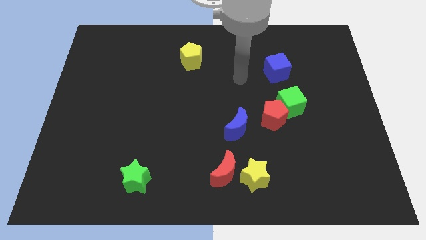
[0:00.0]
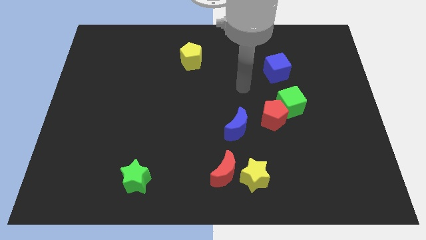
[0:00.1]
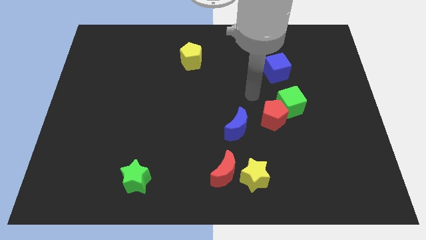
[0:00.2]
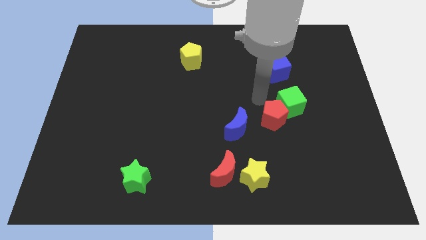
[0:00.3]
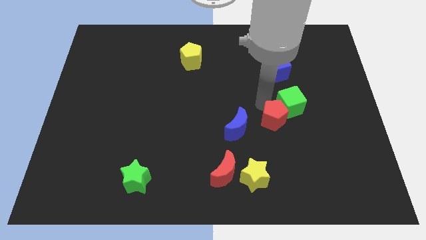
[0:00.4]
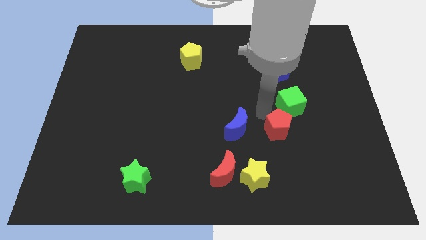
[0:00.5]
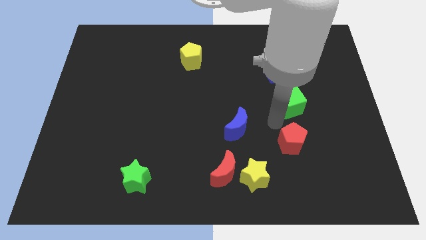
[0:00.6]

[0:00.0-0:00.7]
pull the green cube apart from the red pentagon

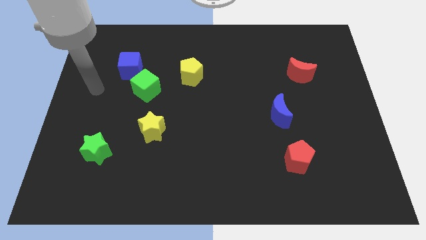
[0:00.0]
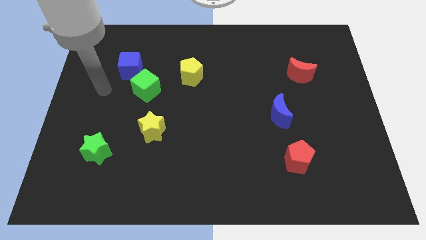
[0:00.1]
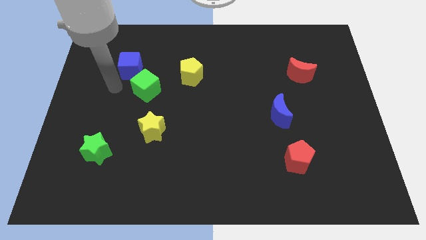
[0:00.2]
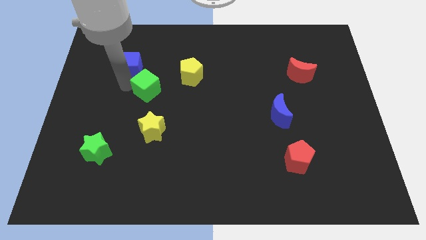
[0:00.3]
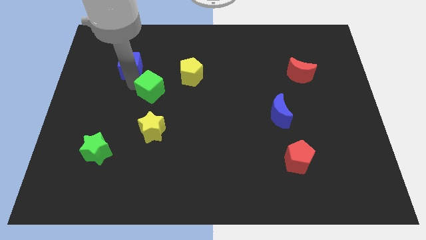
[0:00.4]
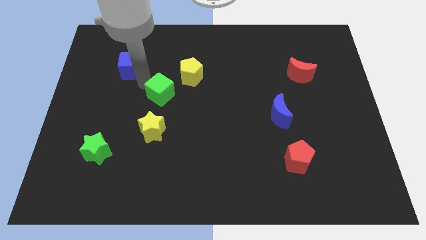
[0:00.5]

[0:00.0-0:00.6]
move the blue cube away from the green cube

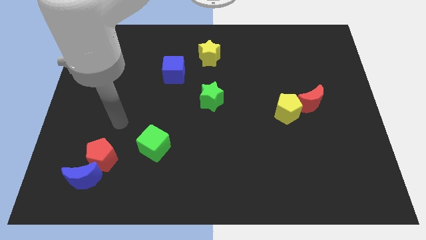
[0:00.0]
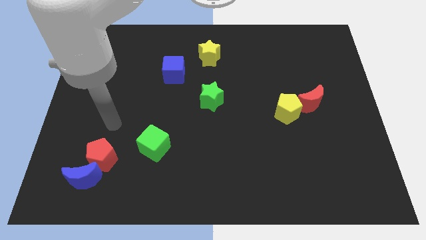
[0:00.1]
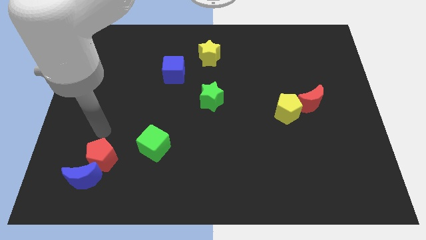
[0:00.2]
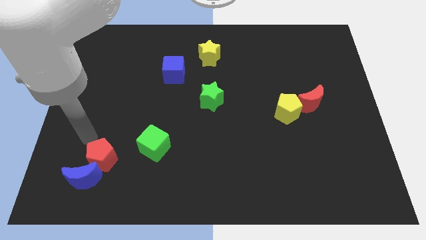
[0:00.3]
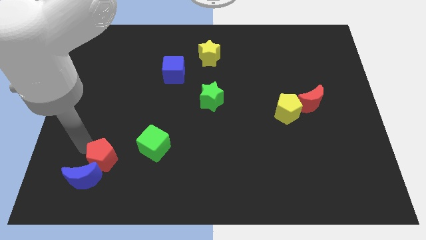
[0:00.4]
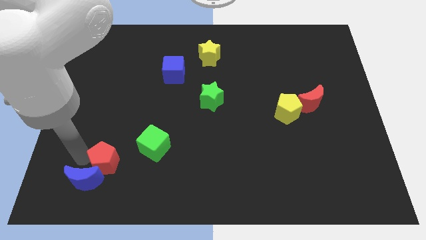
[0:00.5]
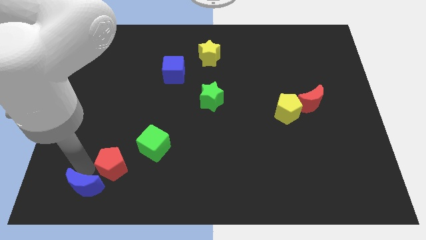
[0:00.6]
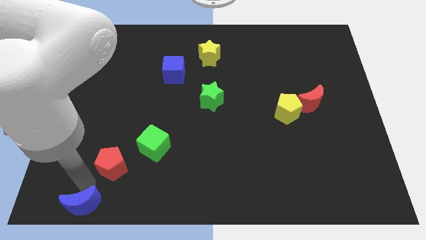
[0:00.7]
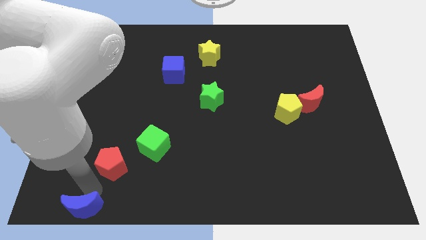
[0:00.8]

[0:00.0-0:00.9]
move the red pentagon away from the blue moon

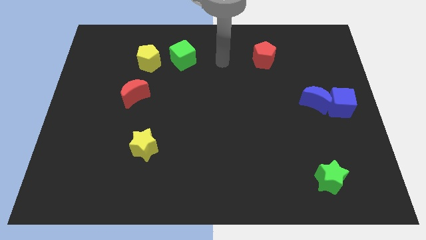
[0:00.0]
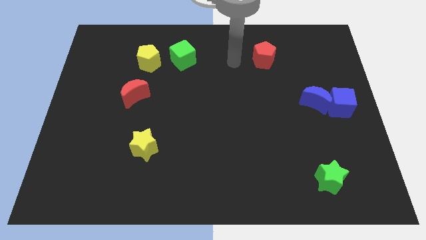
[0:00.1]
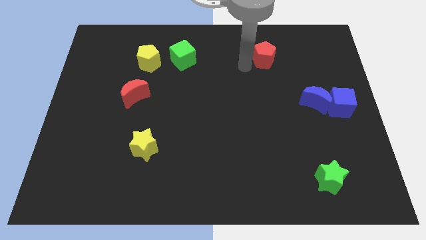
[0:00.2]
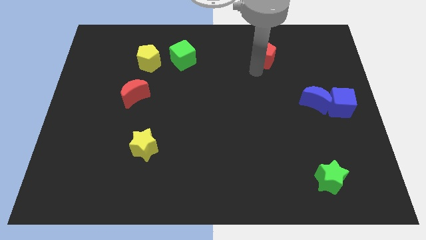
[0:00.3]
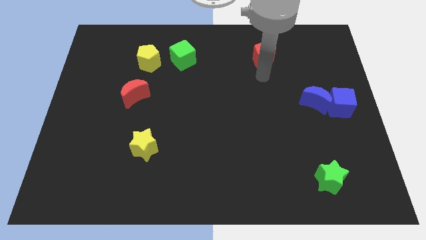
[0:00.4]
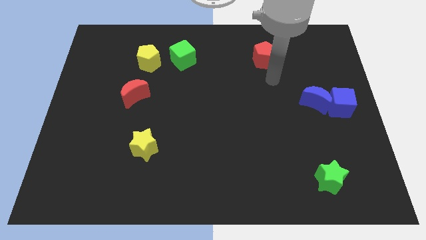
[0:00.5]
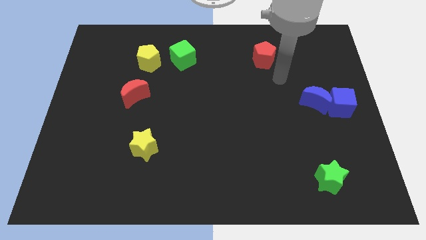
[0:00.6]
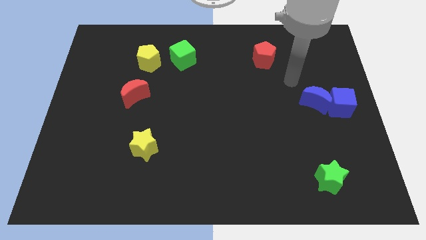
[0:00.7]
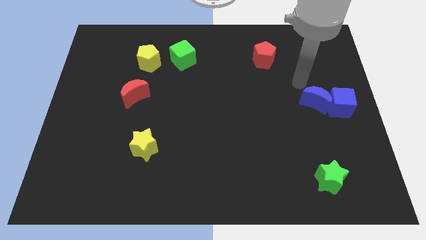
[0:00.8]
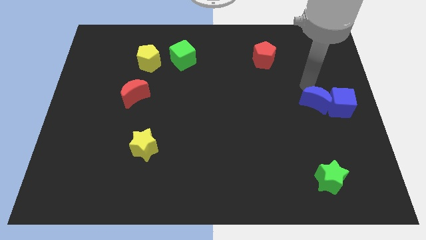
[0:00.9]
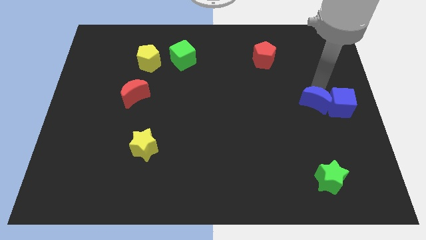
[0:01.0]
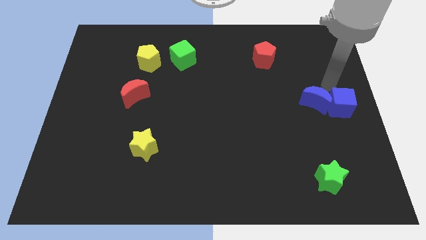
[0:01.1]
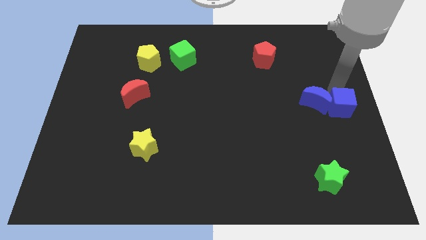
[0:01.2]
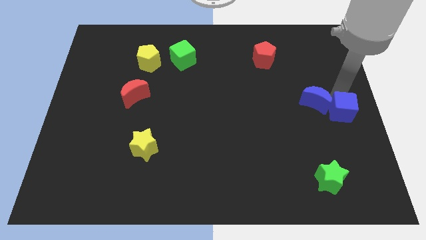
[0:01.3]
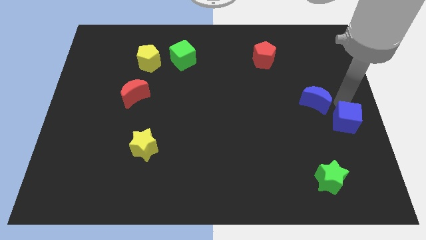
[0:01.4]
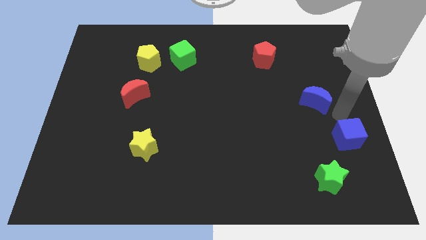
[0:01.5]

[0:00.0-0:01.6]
separate the blue moon from the blue cube

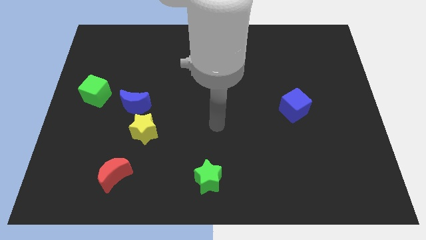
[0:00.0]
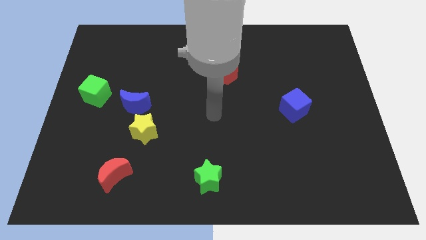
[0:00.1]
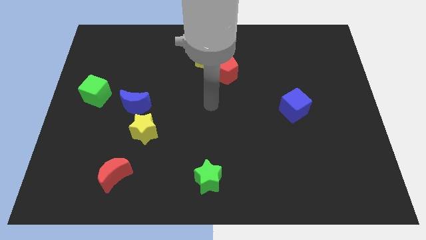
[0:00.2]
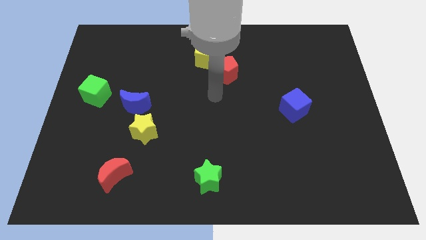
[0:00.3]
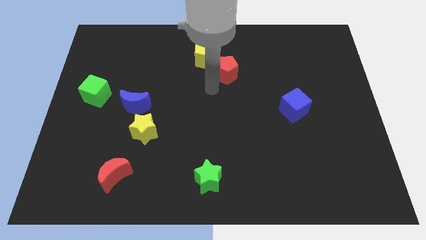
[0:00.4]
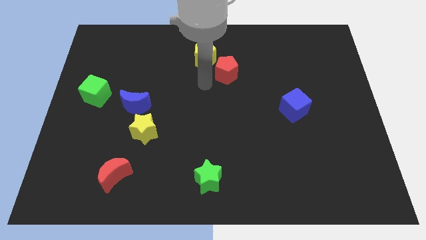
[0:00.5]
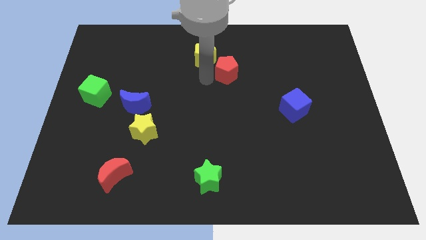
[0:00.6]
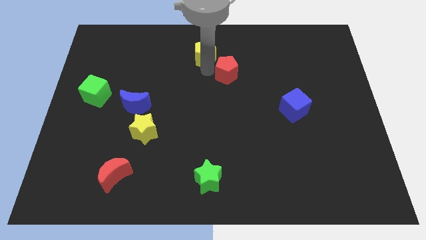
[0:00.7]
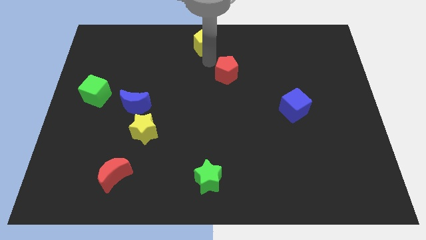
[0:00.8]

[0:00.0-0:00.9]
move the red pentagon away from the yellow pentagon

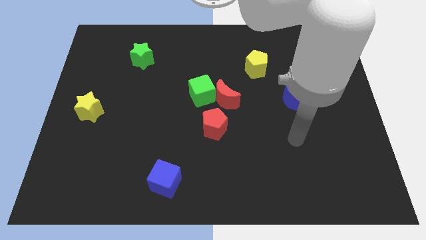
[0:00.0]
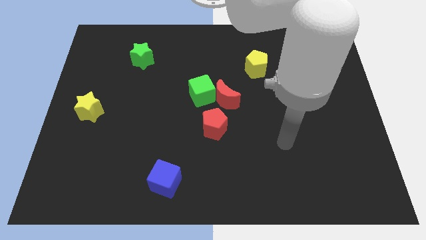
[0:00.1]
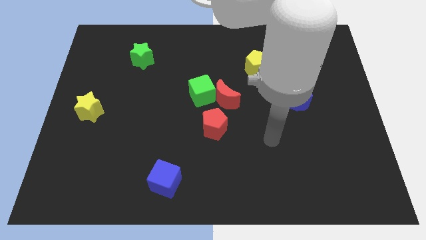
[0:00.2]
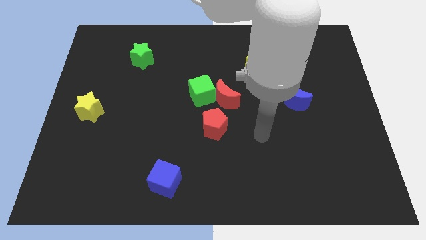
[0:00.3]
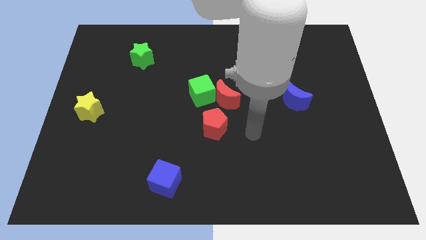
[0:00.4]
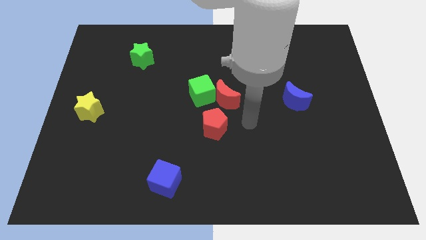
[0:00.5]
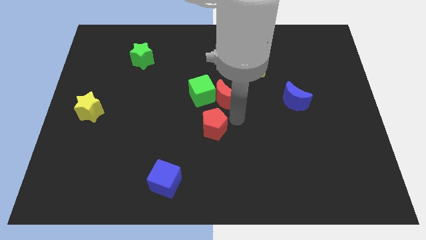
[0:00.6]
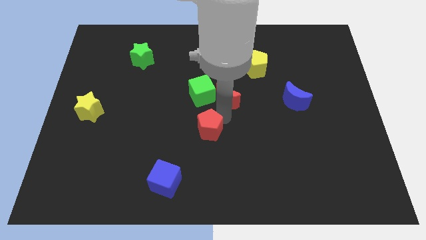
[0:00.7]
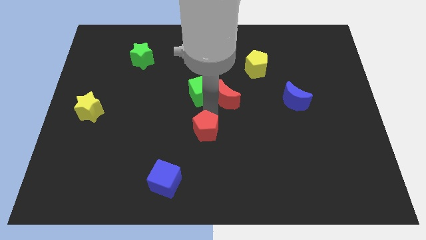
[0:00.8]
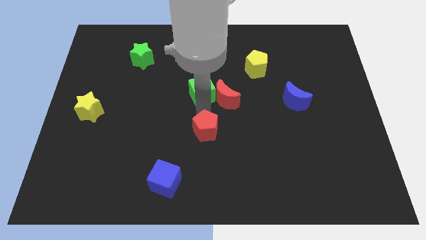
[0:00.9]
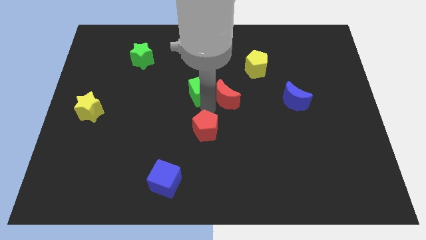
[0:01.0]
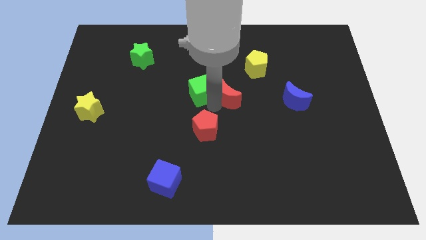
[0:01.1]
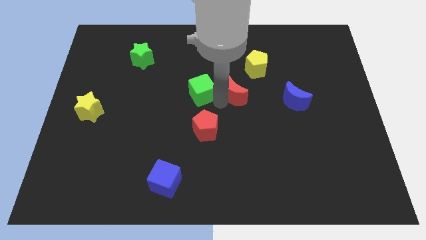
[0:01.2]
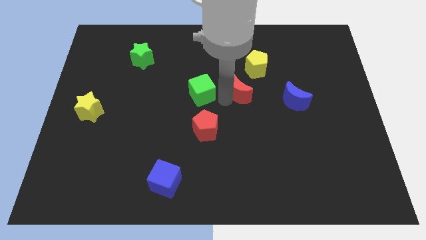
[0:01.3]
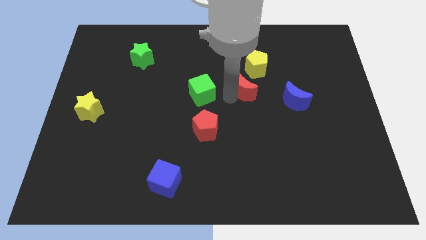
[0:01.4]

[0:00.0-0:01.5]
pull the red moon apart from the green cube and red pentagon

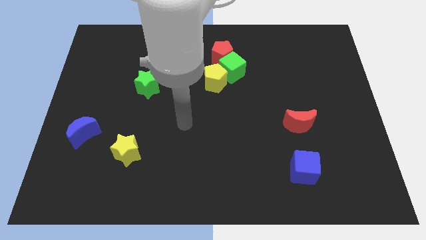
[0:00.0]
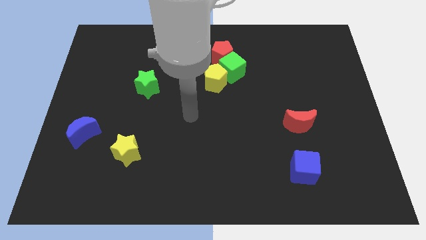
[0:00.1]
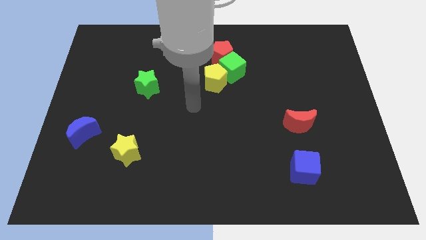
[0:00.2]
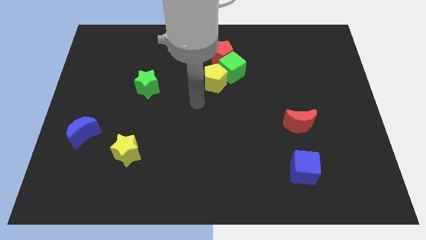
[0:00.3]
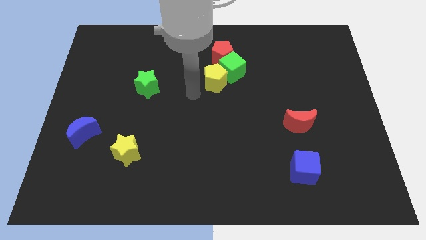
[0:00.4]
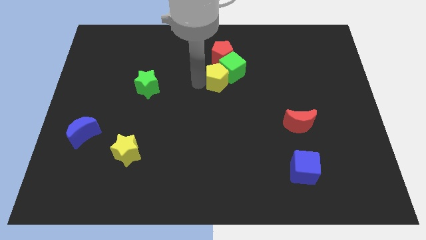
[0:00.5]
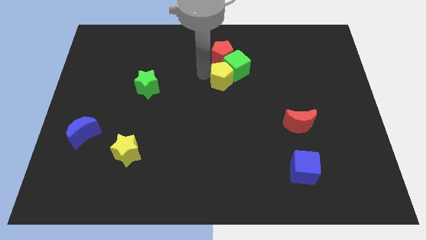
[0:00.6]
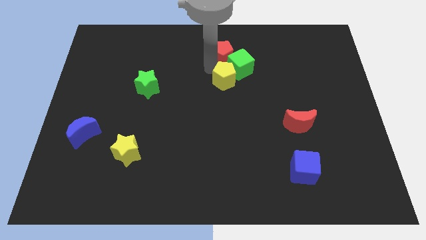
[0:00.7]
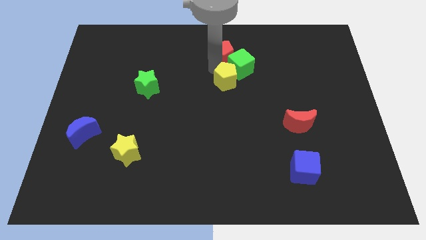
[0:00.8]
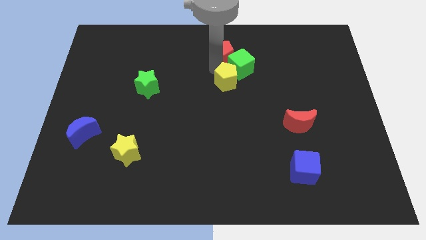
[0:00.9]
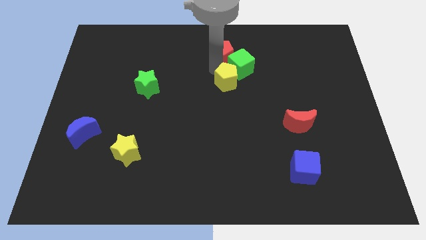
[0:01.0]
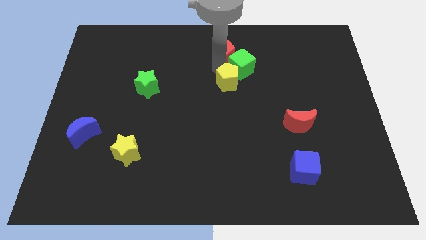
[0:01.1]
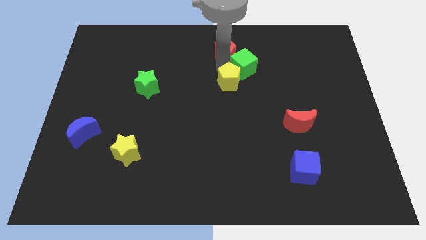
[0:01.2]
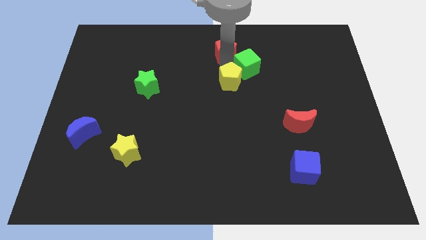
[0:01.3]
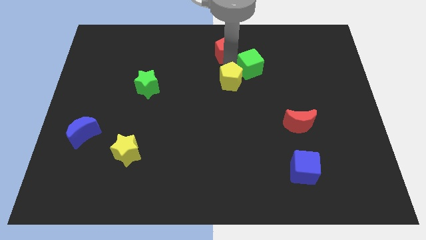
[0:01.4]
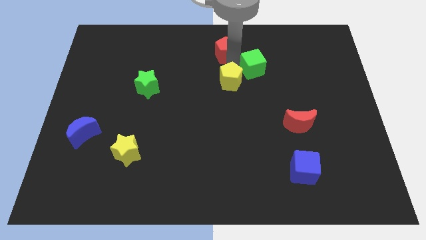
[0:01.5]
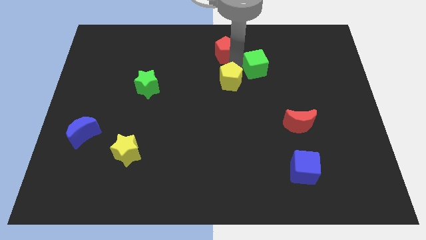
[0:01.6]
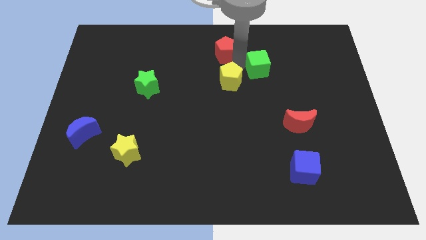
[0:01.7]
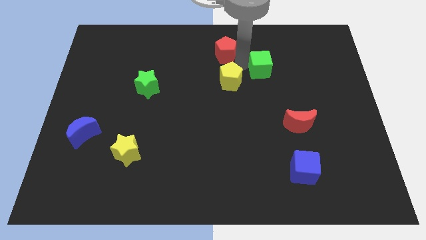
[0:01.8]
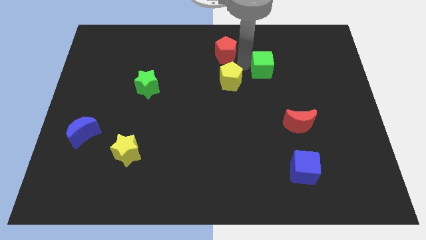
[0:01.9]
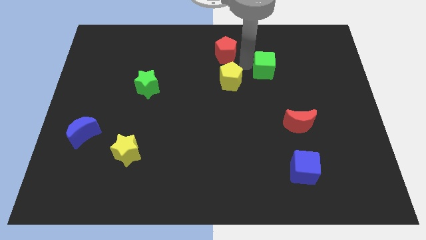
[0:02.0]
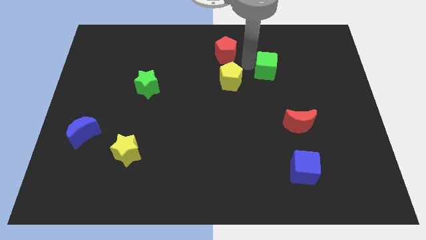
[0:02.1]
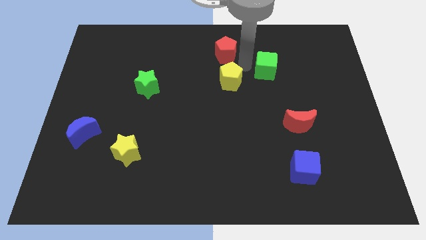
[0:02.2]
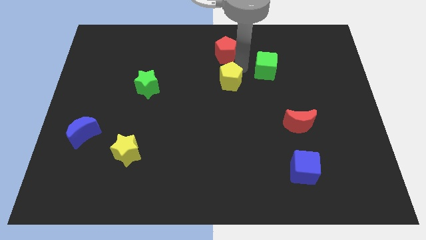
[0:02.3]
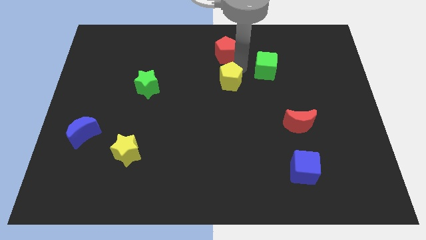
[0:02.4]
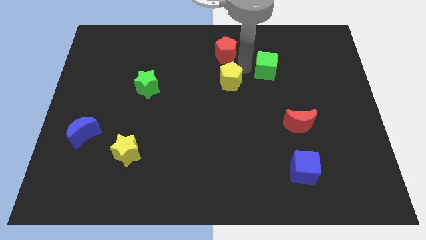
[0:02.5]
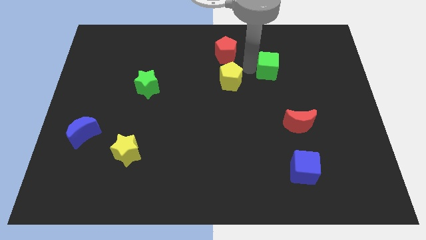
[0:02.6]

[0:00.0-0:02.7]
separate the green cube from the red pentagon and yellow pentagon

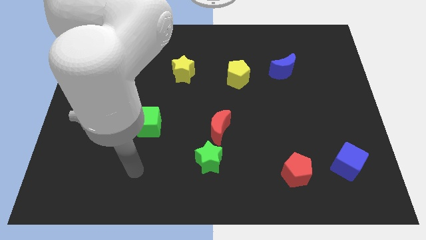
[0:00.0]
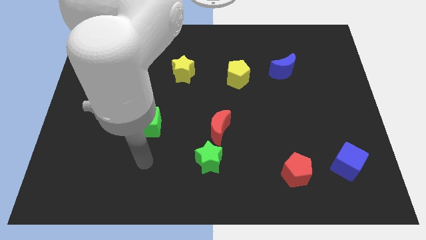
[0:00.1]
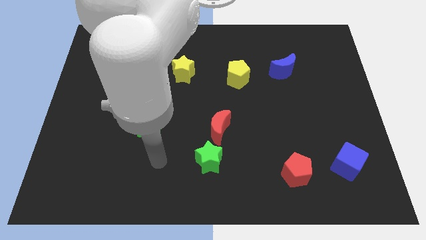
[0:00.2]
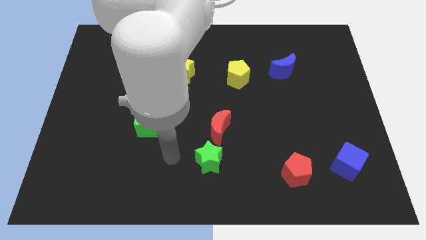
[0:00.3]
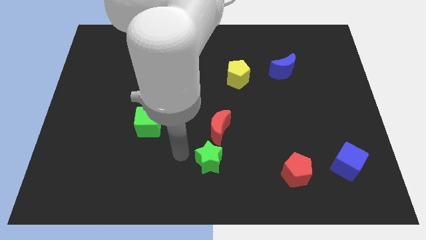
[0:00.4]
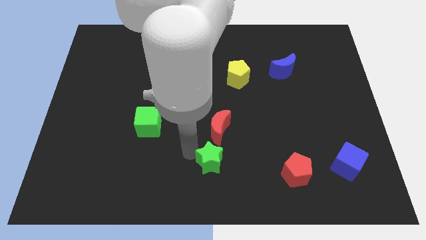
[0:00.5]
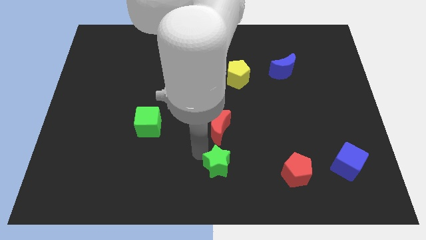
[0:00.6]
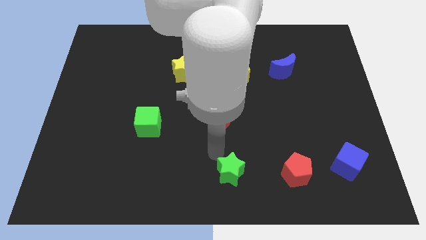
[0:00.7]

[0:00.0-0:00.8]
pull the red moon apart from the green star
